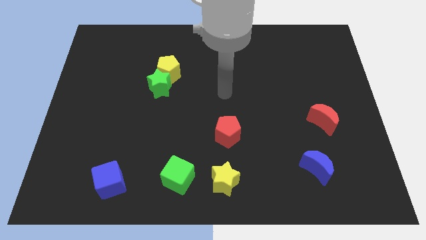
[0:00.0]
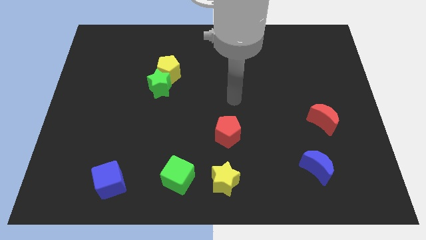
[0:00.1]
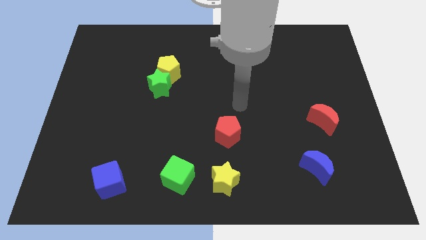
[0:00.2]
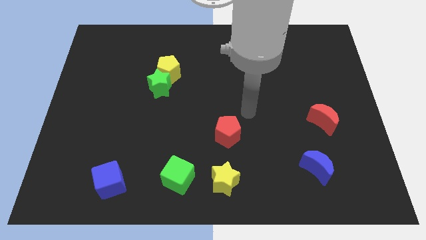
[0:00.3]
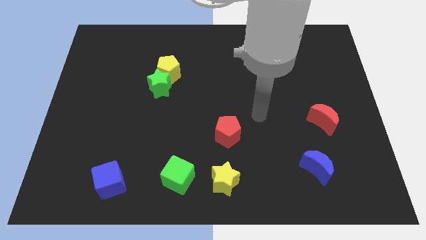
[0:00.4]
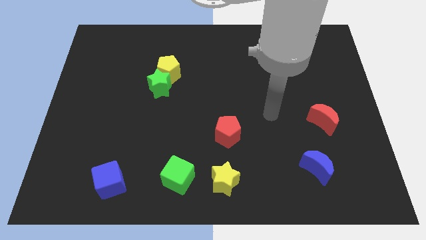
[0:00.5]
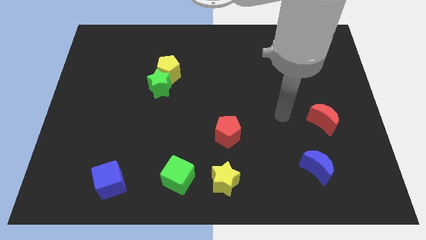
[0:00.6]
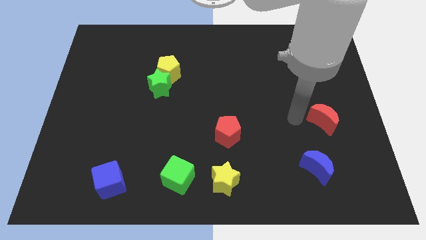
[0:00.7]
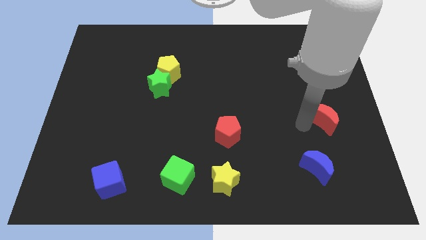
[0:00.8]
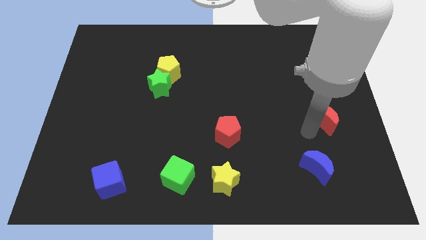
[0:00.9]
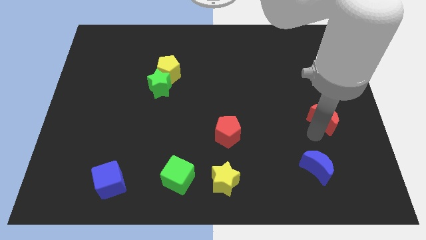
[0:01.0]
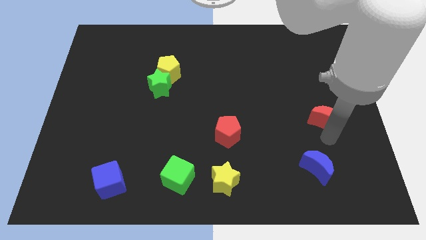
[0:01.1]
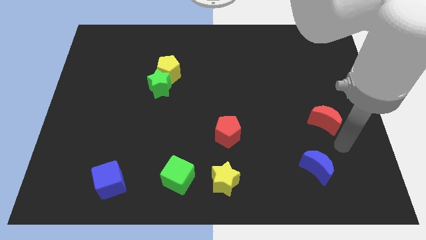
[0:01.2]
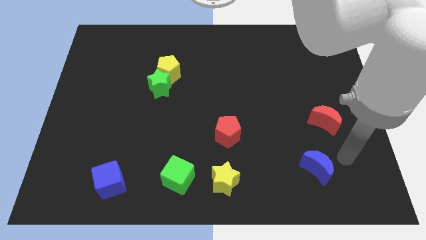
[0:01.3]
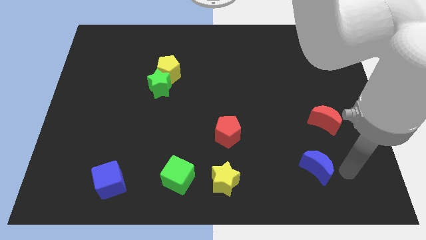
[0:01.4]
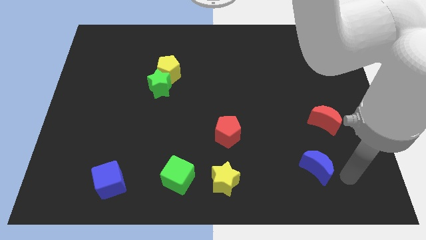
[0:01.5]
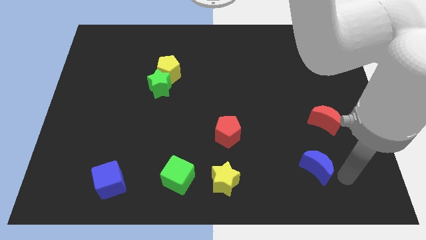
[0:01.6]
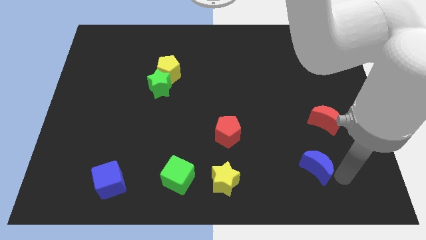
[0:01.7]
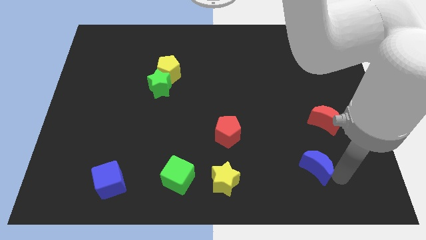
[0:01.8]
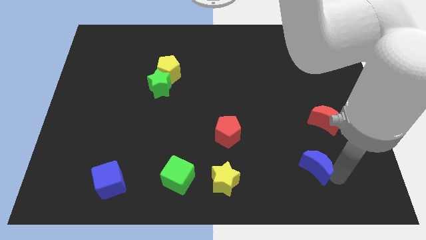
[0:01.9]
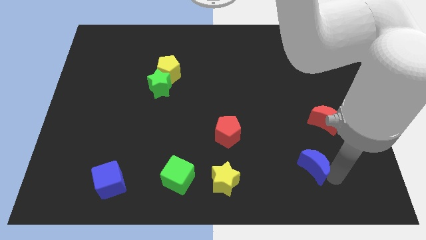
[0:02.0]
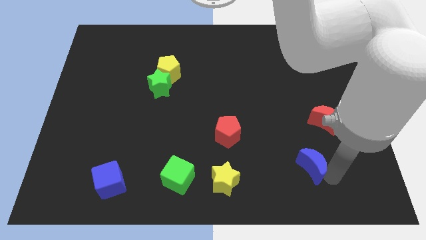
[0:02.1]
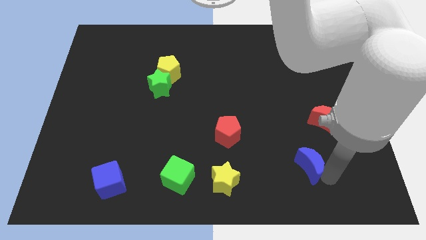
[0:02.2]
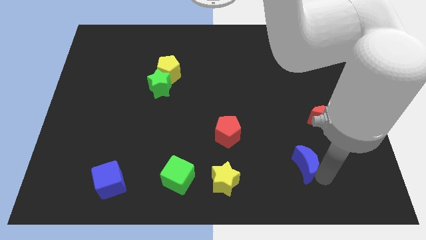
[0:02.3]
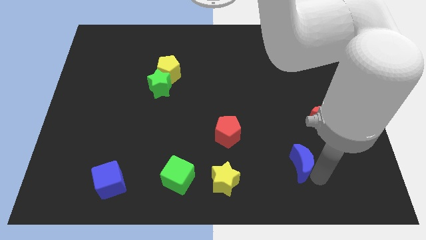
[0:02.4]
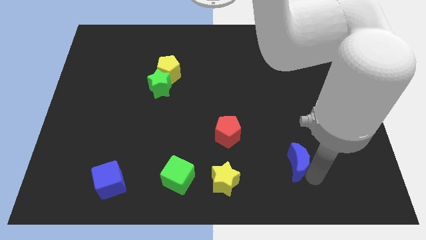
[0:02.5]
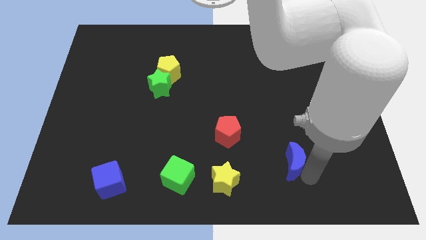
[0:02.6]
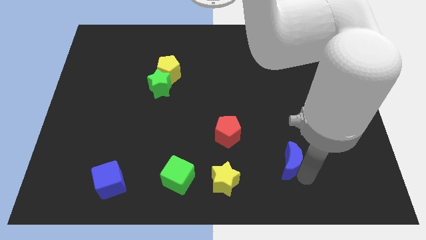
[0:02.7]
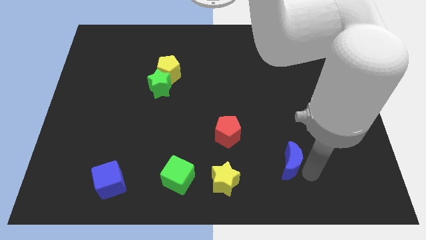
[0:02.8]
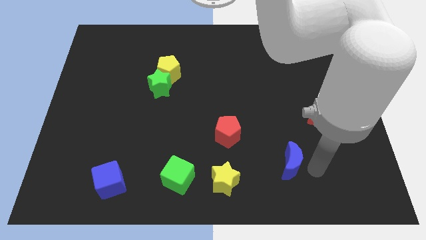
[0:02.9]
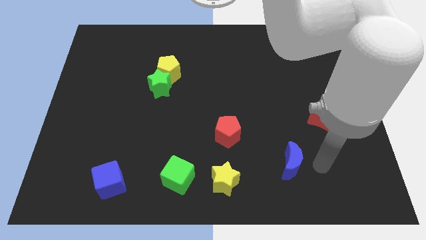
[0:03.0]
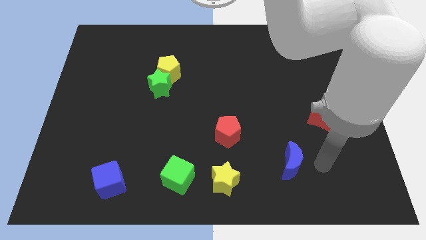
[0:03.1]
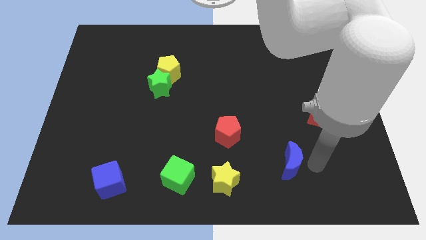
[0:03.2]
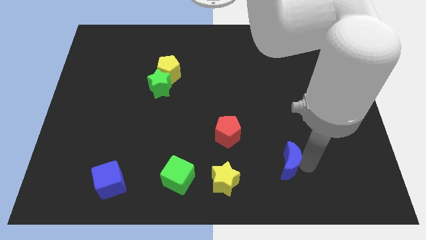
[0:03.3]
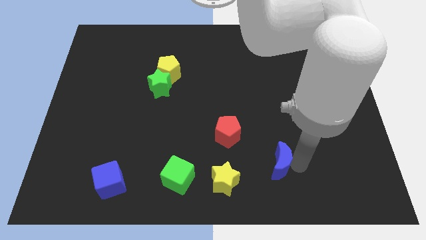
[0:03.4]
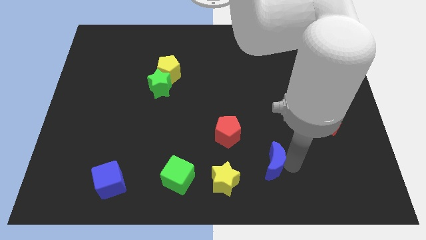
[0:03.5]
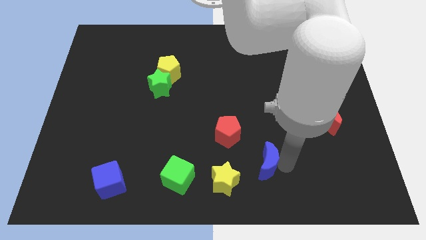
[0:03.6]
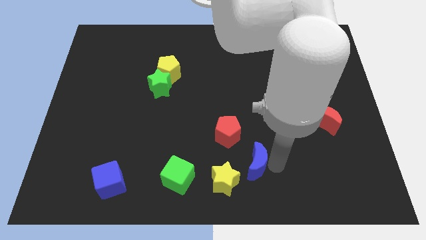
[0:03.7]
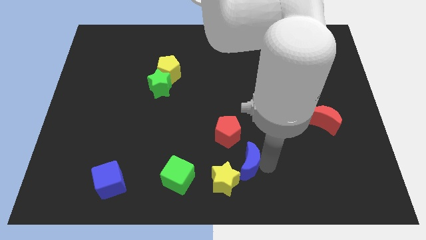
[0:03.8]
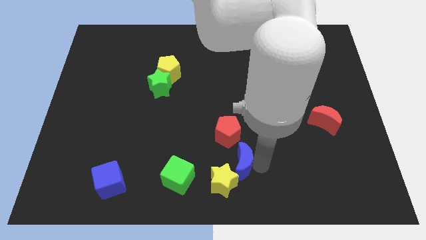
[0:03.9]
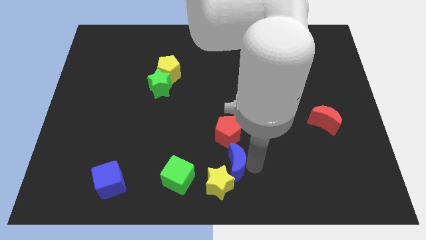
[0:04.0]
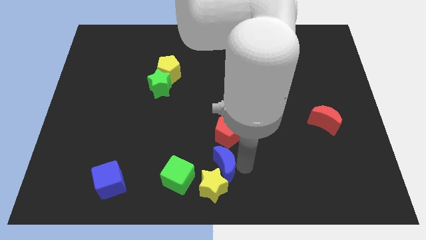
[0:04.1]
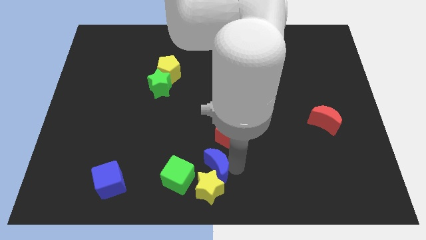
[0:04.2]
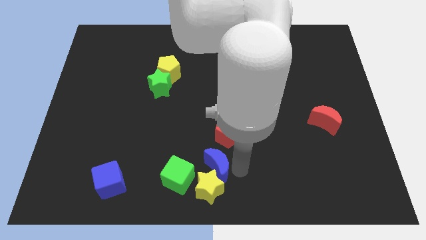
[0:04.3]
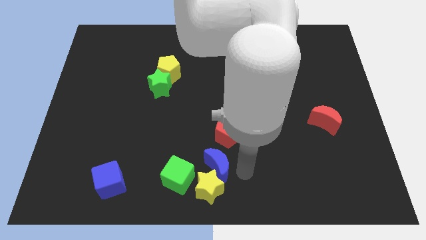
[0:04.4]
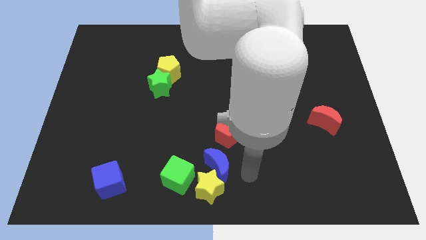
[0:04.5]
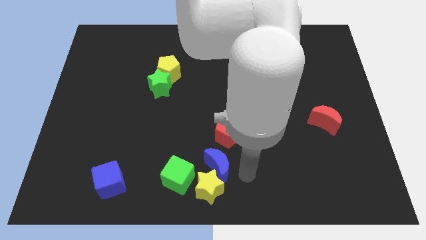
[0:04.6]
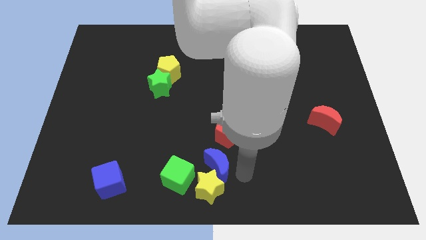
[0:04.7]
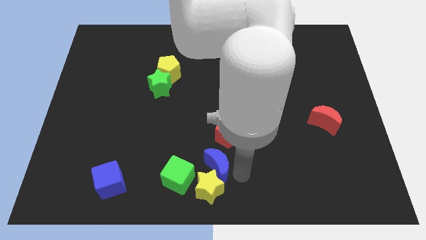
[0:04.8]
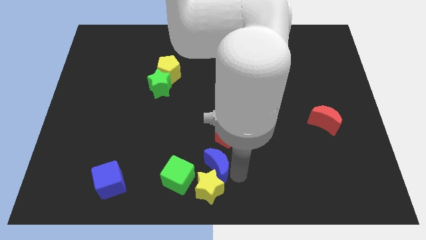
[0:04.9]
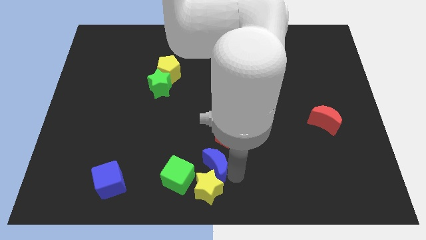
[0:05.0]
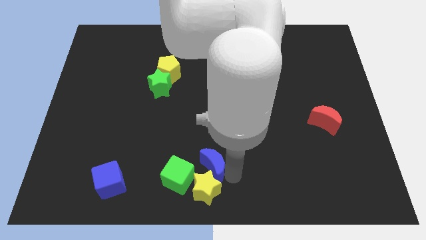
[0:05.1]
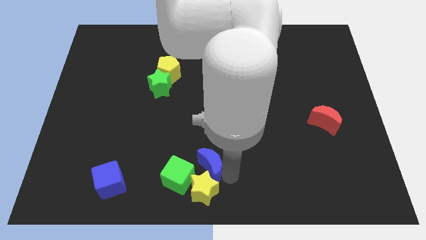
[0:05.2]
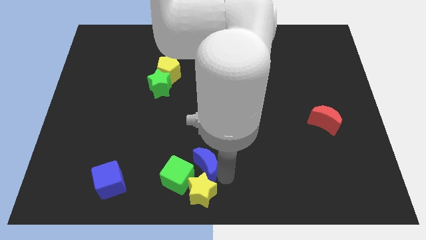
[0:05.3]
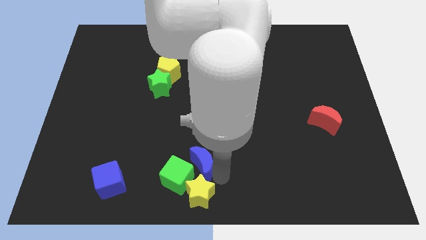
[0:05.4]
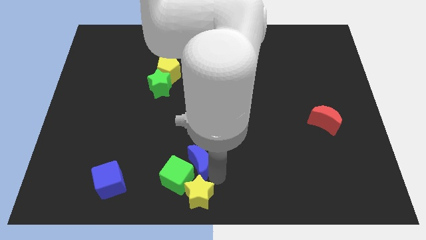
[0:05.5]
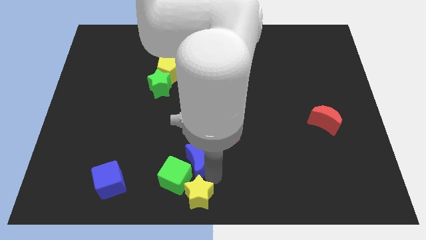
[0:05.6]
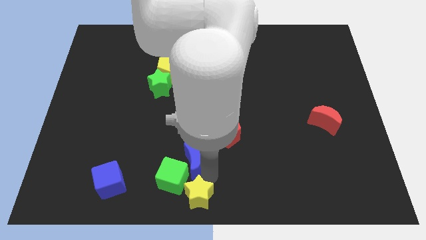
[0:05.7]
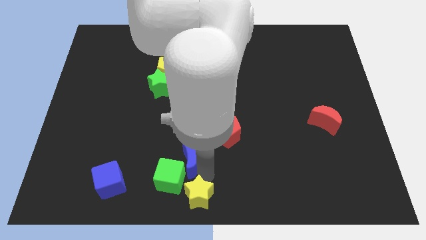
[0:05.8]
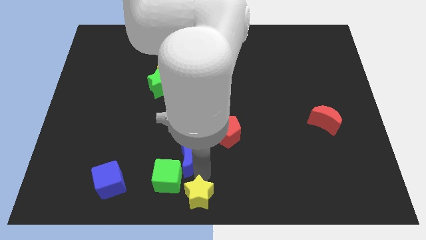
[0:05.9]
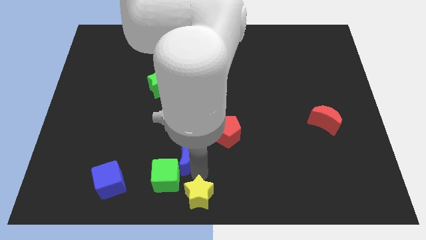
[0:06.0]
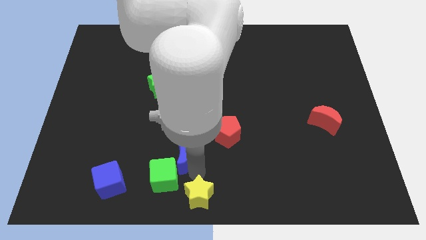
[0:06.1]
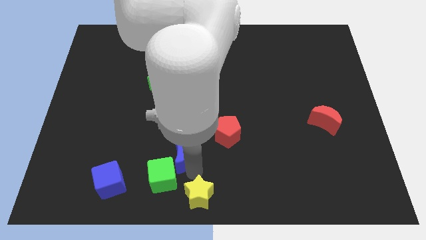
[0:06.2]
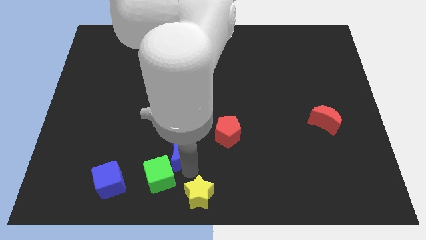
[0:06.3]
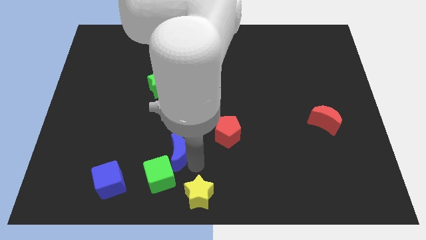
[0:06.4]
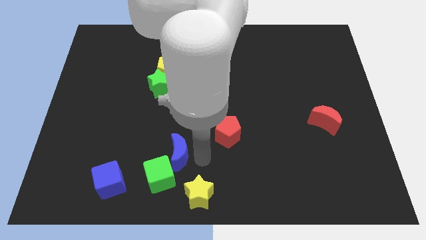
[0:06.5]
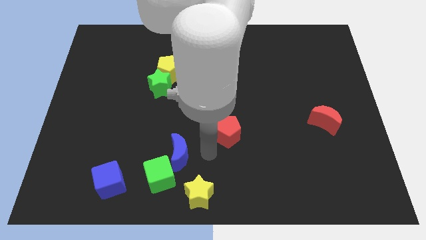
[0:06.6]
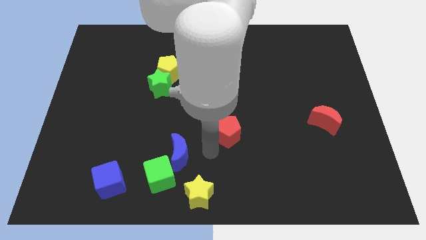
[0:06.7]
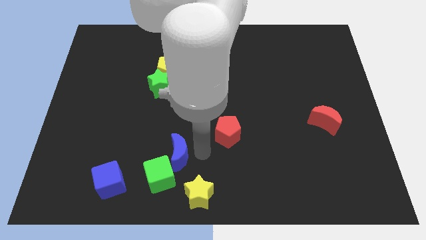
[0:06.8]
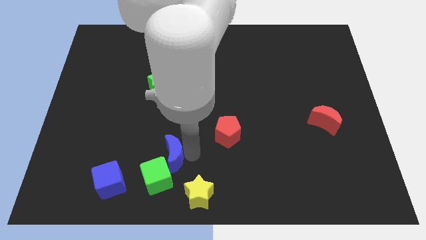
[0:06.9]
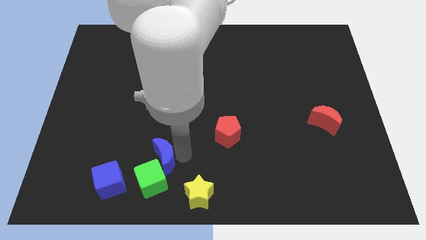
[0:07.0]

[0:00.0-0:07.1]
put the blue moon to the top right of the blue cube
